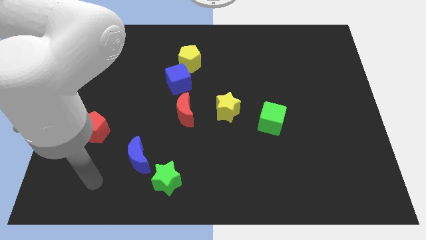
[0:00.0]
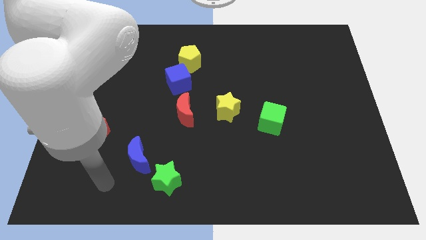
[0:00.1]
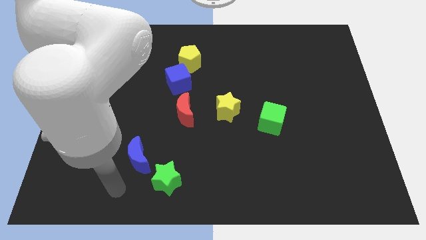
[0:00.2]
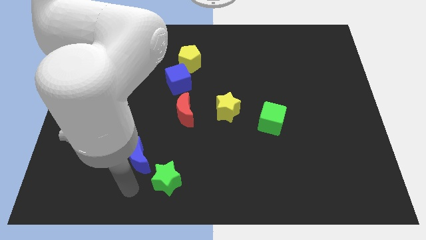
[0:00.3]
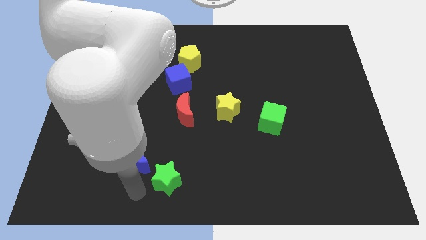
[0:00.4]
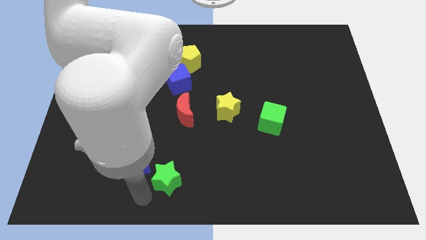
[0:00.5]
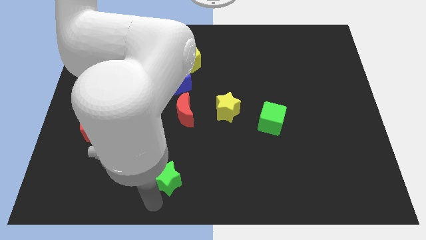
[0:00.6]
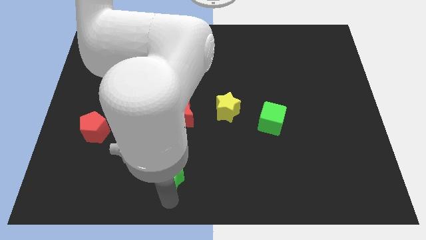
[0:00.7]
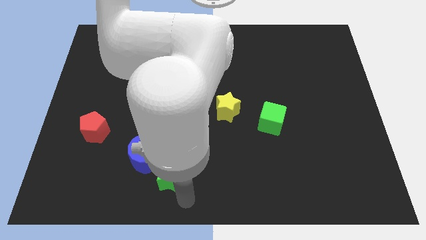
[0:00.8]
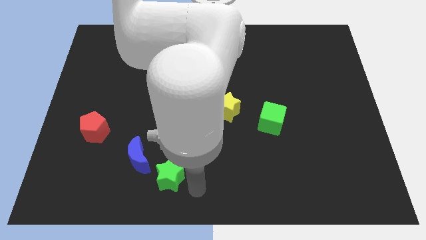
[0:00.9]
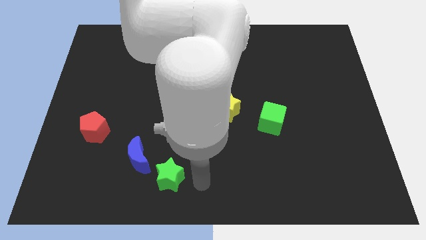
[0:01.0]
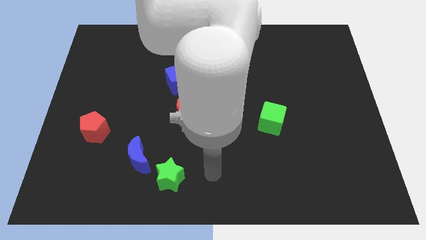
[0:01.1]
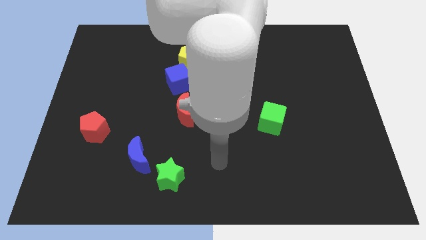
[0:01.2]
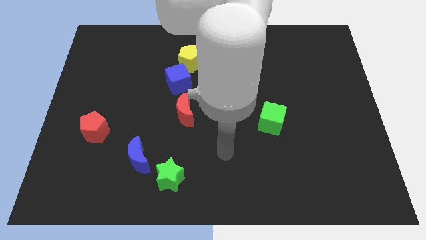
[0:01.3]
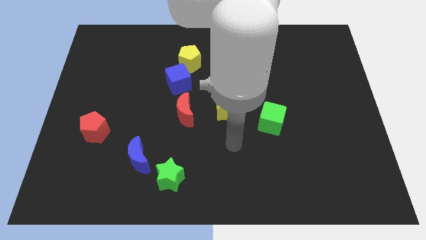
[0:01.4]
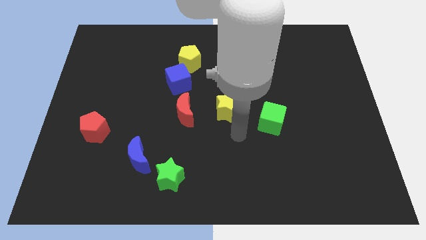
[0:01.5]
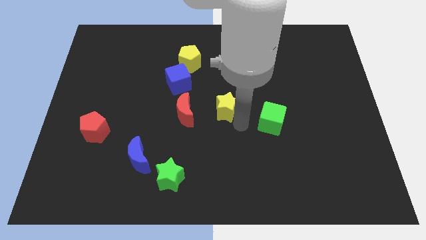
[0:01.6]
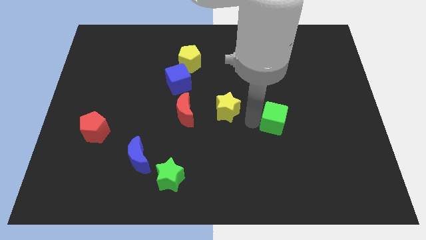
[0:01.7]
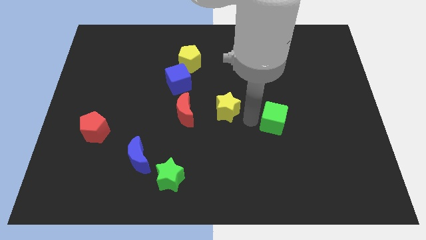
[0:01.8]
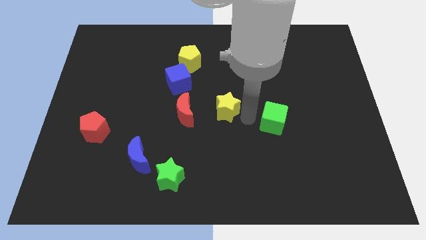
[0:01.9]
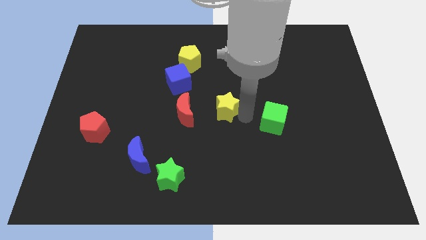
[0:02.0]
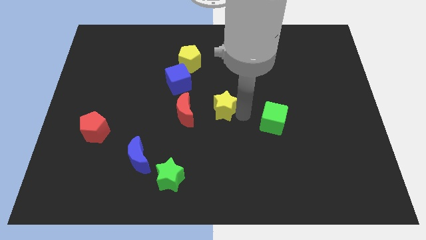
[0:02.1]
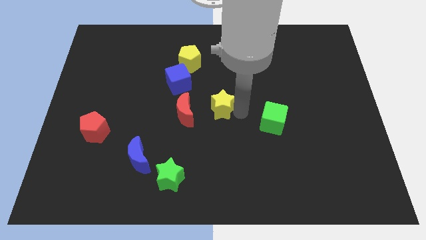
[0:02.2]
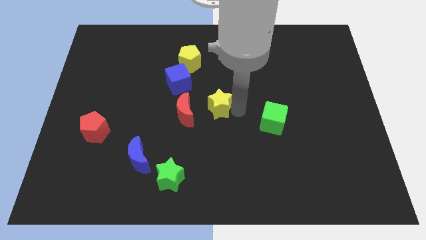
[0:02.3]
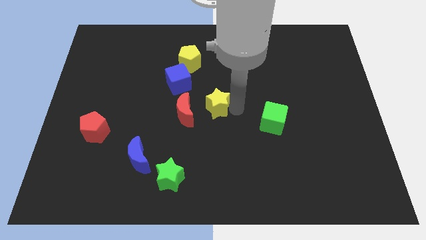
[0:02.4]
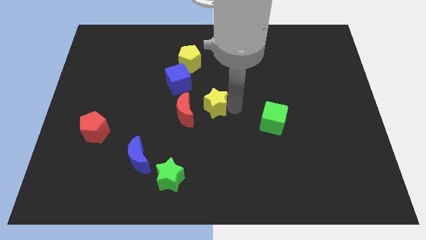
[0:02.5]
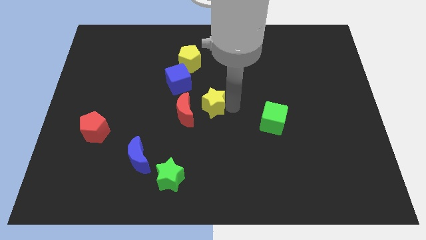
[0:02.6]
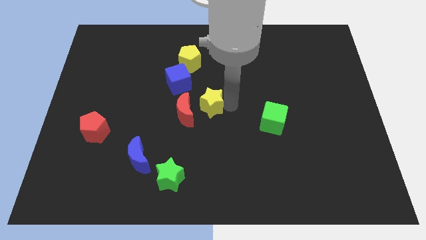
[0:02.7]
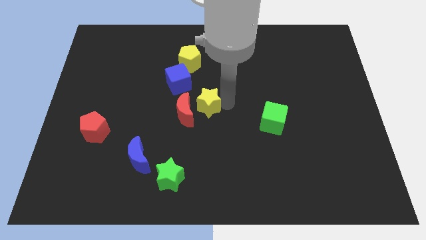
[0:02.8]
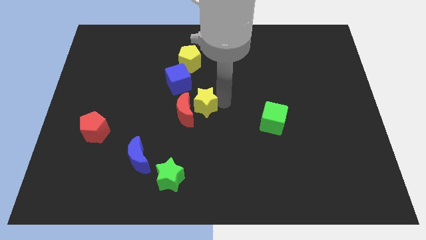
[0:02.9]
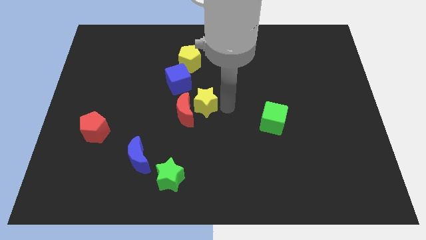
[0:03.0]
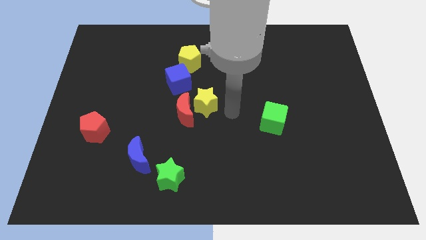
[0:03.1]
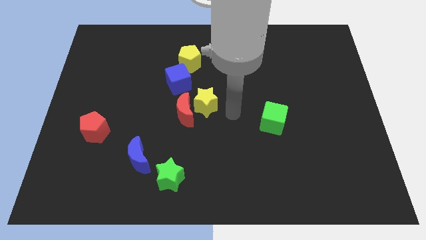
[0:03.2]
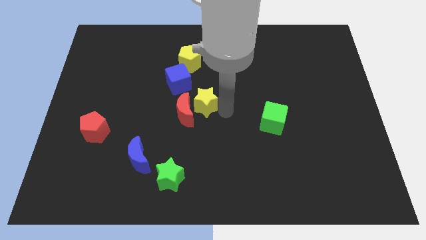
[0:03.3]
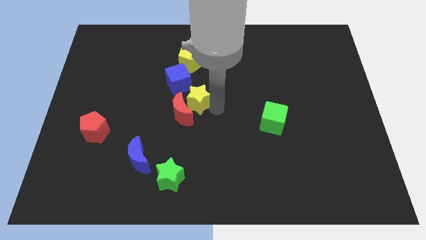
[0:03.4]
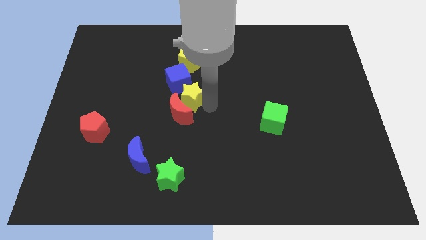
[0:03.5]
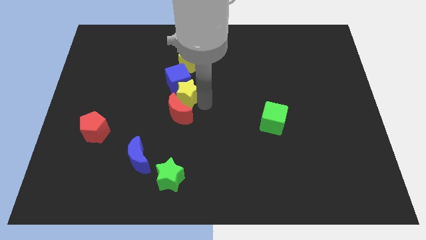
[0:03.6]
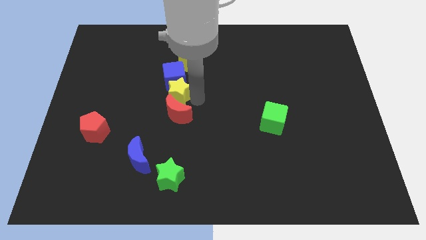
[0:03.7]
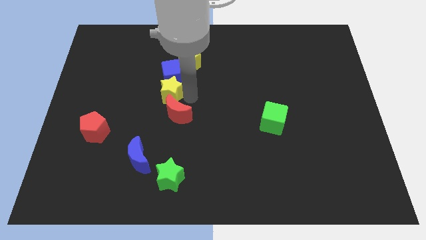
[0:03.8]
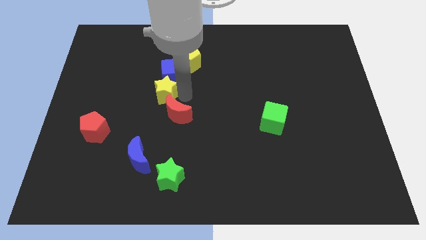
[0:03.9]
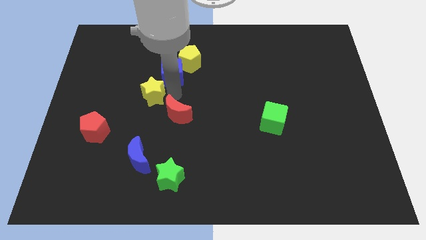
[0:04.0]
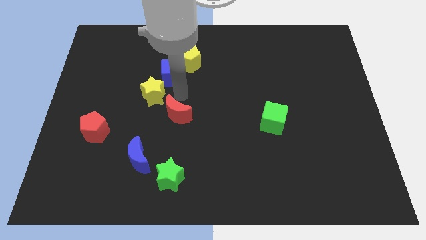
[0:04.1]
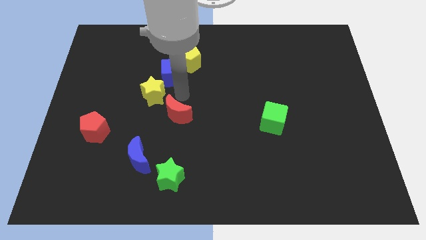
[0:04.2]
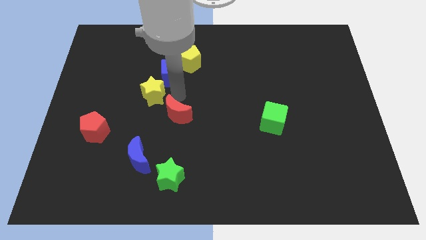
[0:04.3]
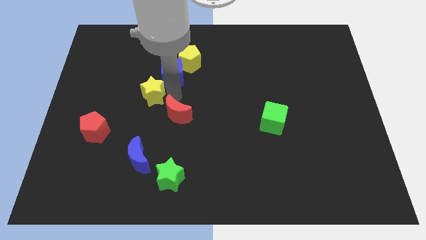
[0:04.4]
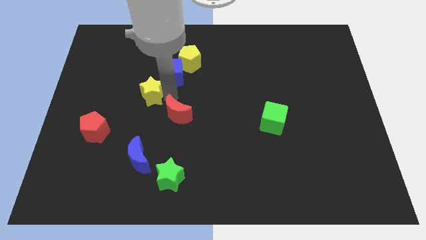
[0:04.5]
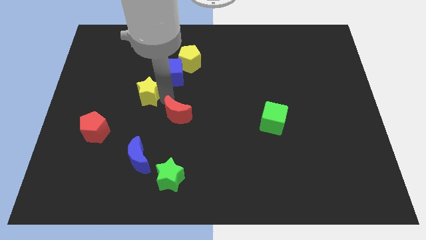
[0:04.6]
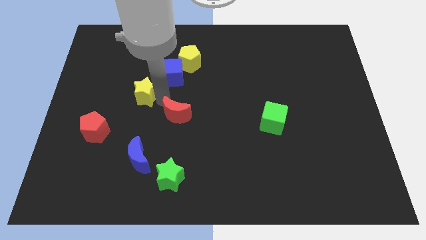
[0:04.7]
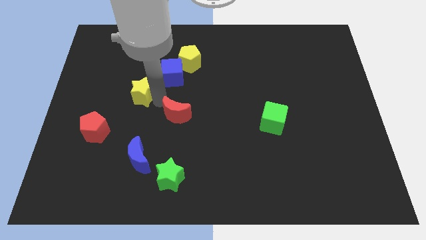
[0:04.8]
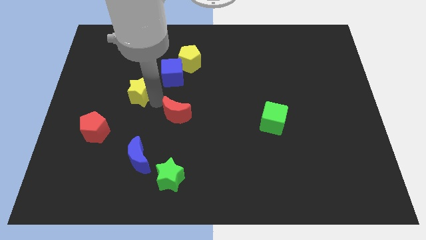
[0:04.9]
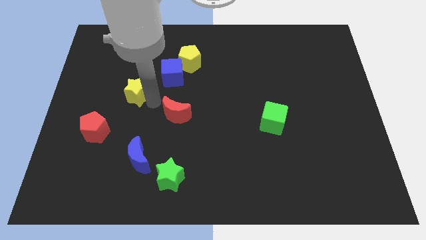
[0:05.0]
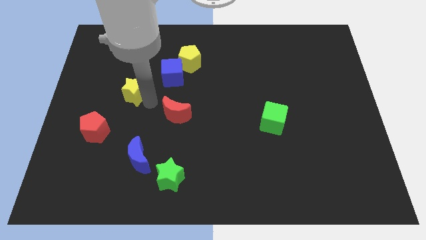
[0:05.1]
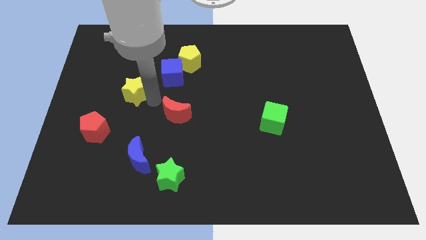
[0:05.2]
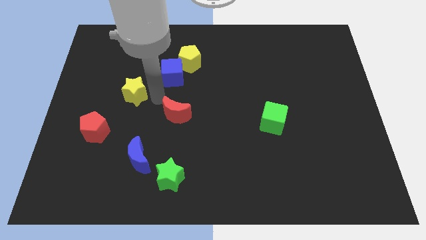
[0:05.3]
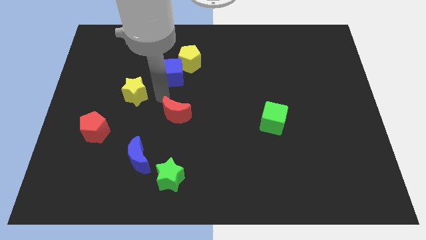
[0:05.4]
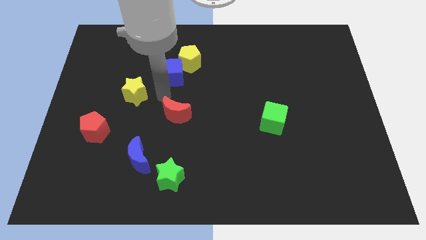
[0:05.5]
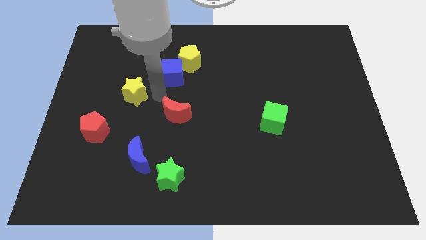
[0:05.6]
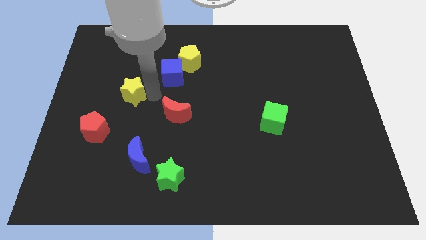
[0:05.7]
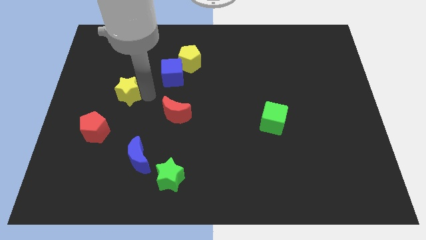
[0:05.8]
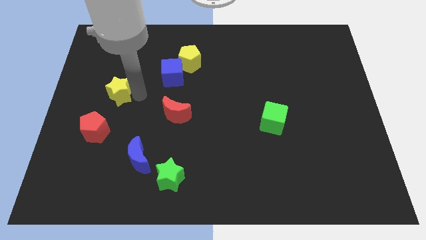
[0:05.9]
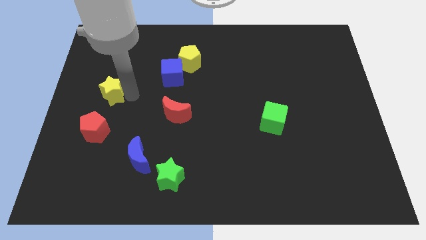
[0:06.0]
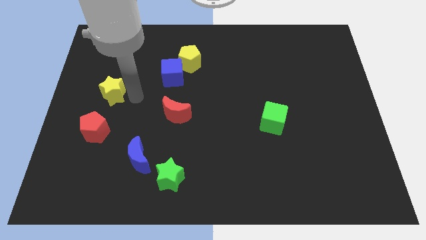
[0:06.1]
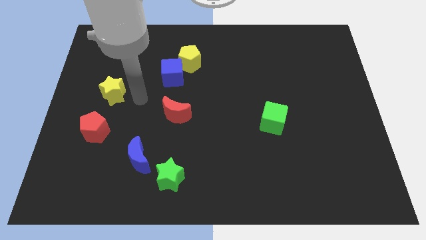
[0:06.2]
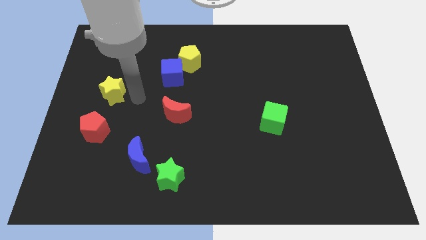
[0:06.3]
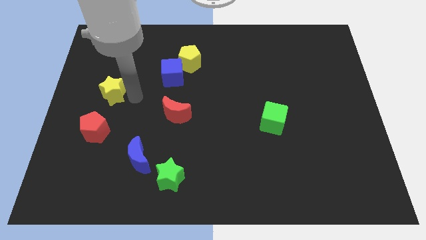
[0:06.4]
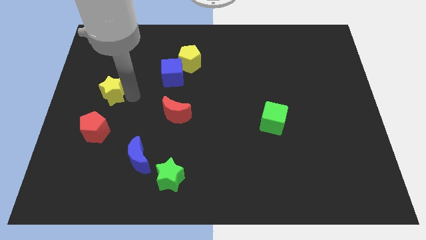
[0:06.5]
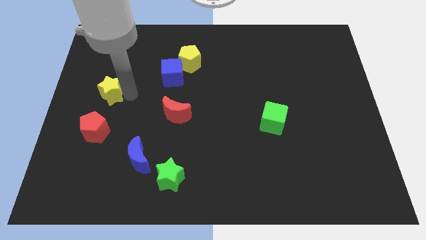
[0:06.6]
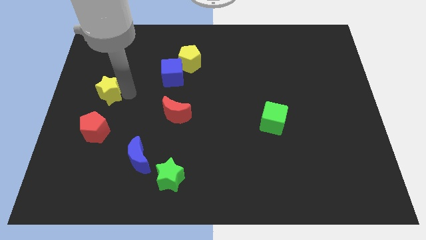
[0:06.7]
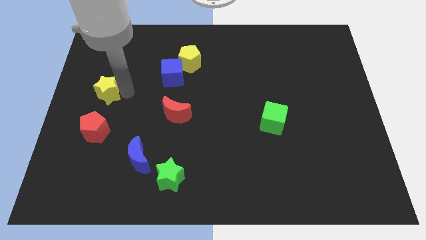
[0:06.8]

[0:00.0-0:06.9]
move the yellow star to the left side
